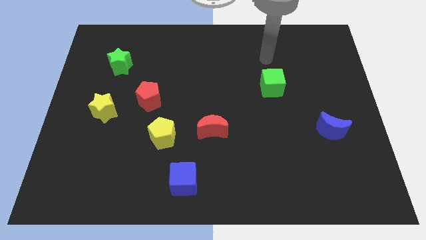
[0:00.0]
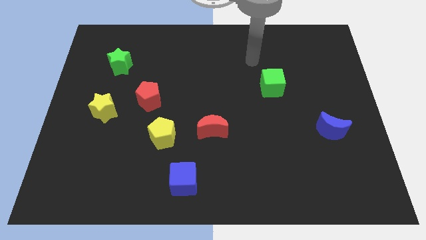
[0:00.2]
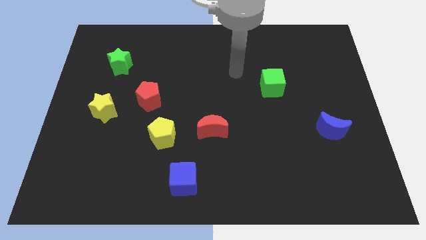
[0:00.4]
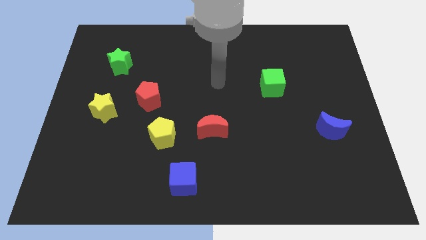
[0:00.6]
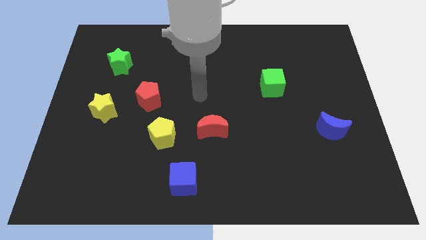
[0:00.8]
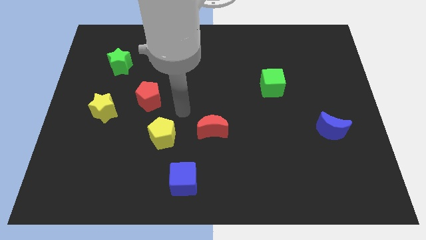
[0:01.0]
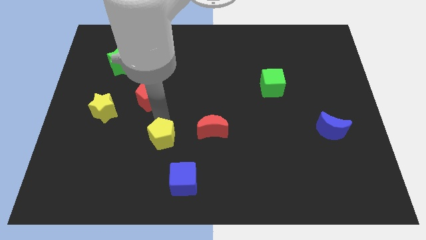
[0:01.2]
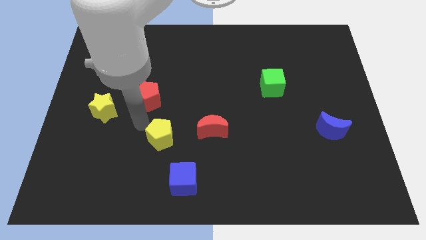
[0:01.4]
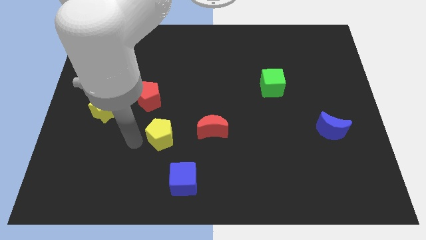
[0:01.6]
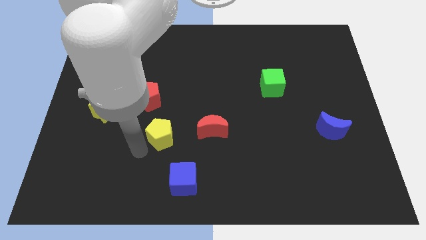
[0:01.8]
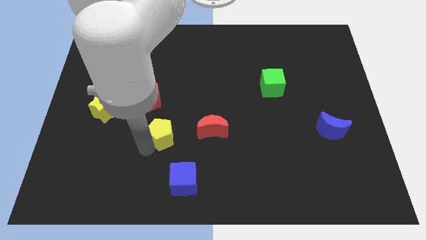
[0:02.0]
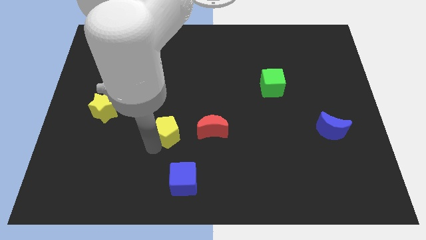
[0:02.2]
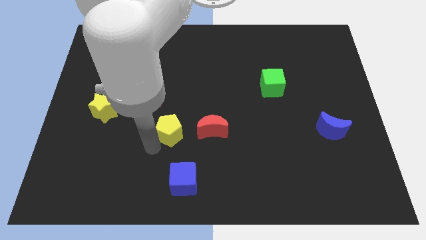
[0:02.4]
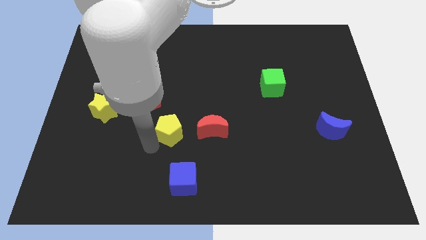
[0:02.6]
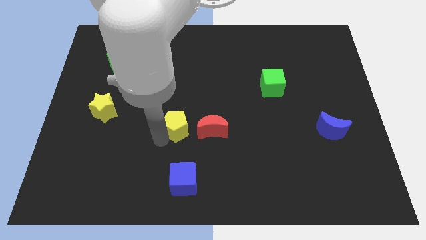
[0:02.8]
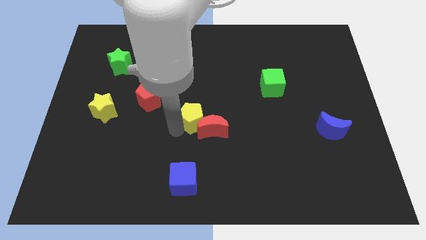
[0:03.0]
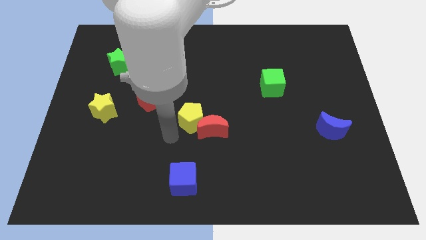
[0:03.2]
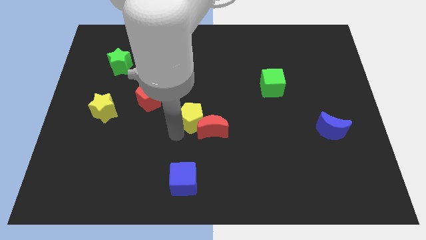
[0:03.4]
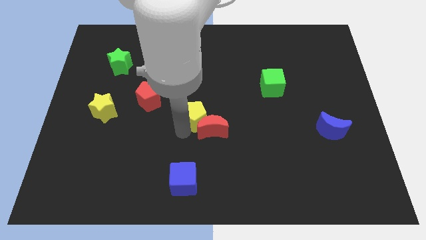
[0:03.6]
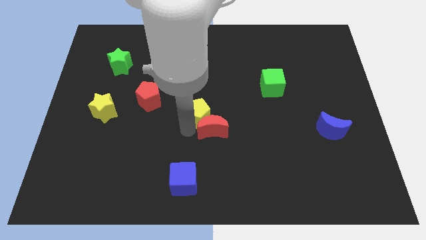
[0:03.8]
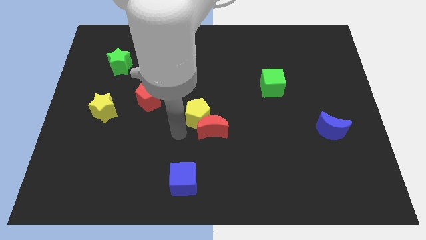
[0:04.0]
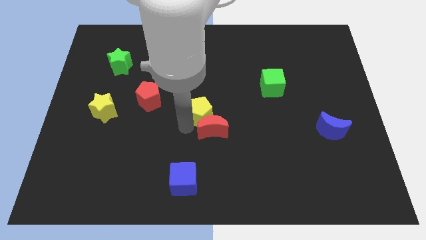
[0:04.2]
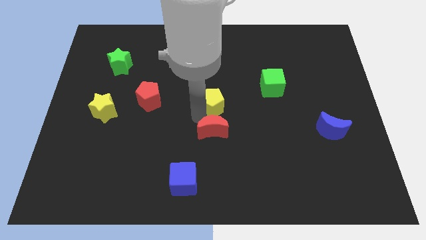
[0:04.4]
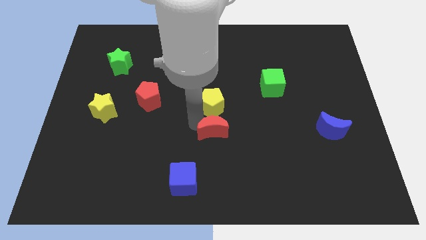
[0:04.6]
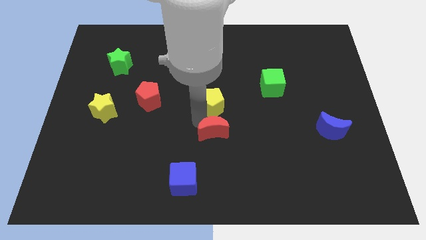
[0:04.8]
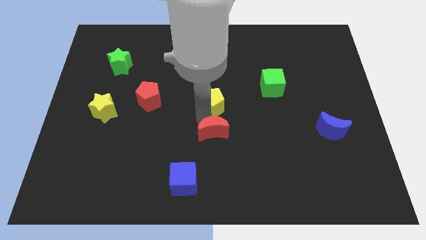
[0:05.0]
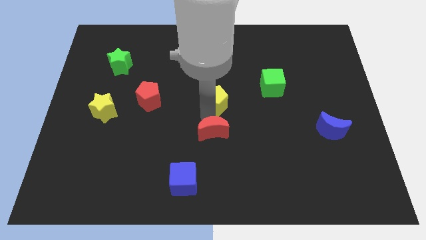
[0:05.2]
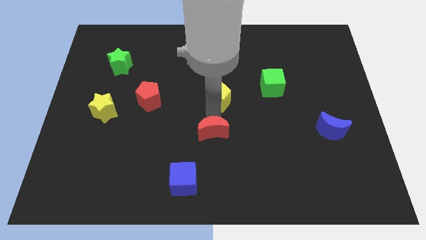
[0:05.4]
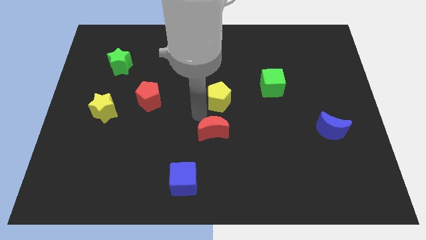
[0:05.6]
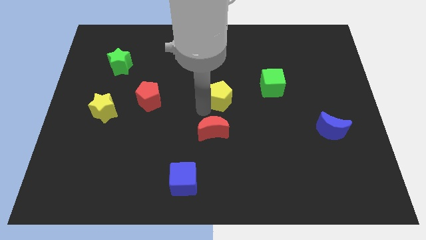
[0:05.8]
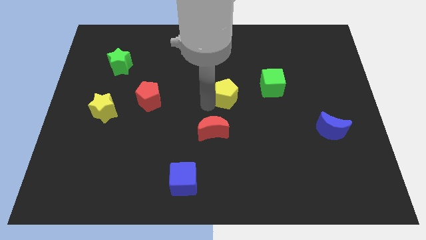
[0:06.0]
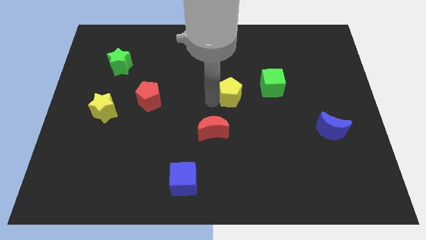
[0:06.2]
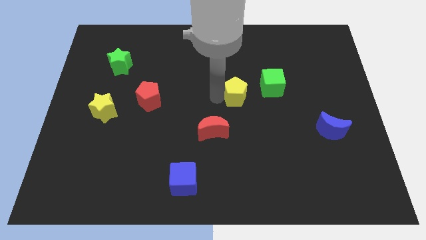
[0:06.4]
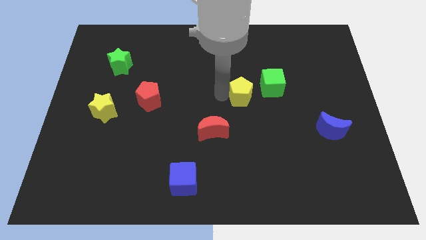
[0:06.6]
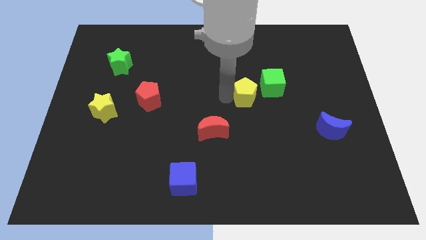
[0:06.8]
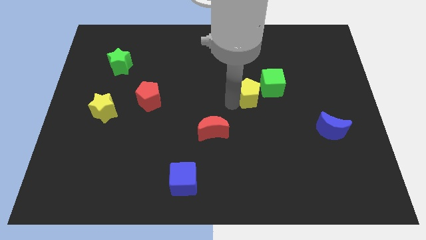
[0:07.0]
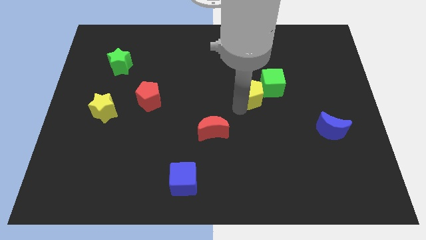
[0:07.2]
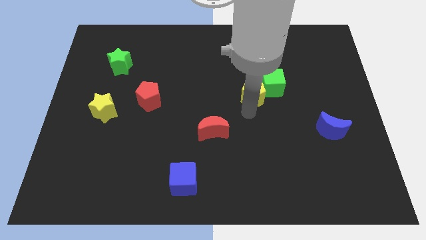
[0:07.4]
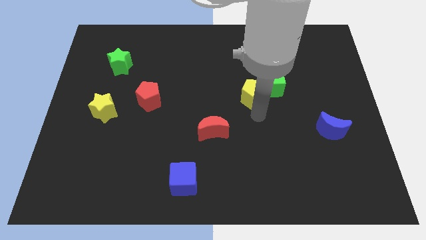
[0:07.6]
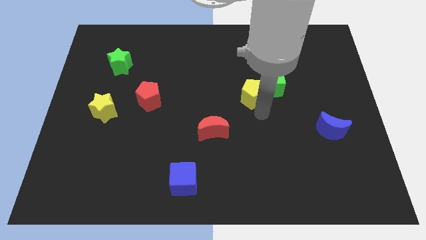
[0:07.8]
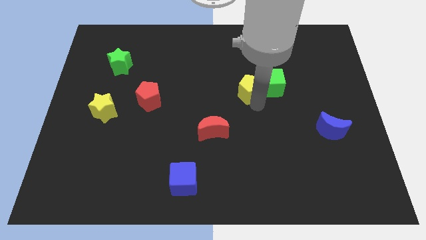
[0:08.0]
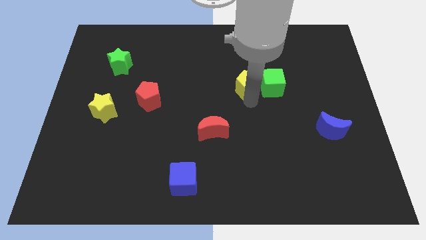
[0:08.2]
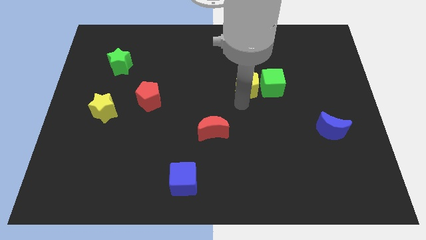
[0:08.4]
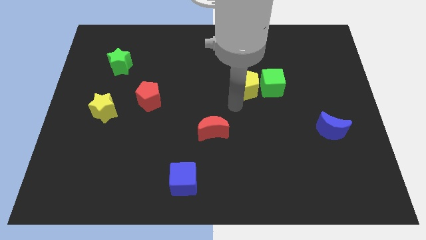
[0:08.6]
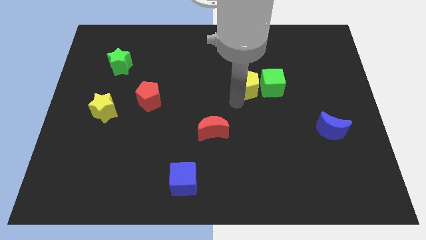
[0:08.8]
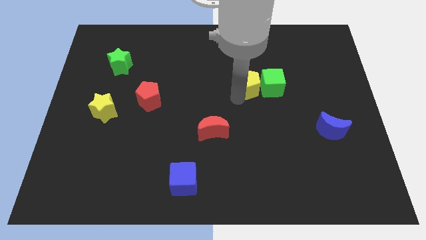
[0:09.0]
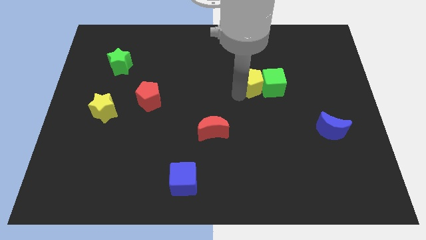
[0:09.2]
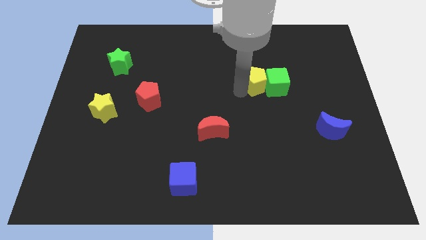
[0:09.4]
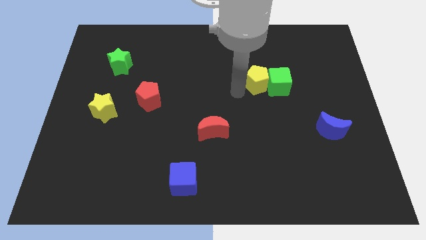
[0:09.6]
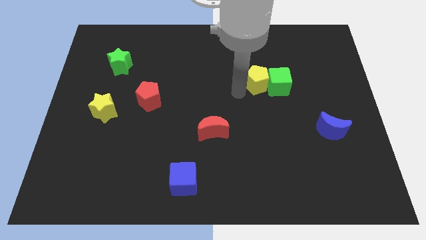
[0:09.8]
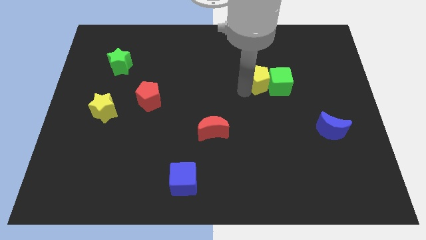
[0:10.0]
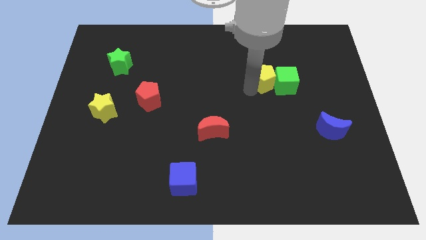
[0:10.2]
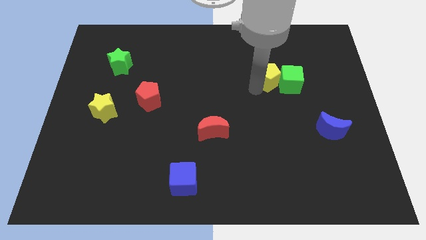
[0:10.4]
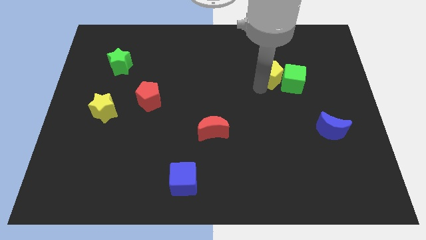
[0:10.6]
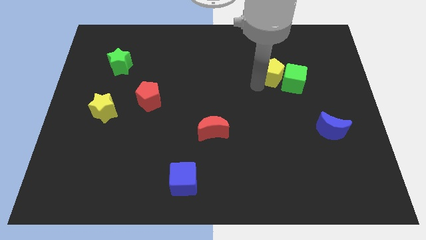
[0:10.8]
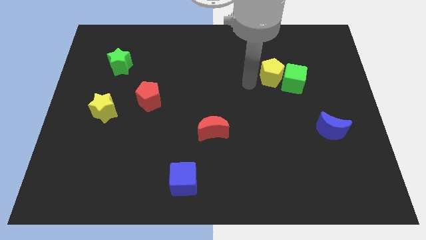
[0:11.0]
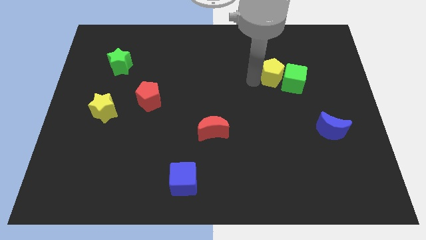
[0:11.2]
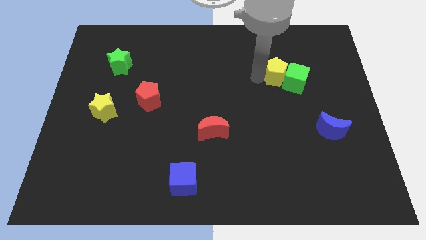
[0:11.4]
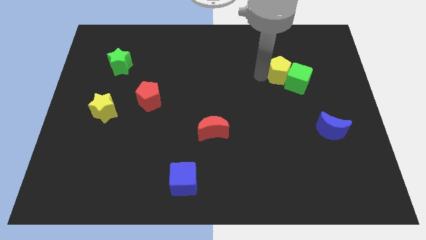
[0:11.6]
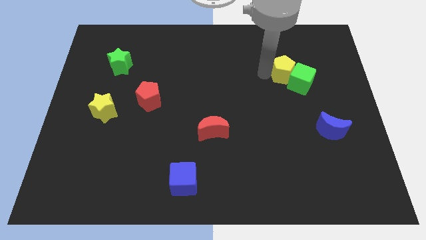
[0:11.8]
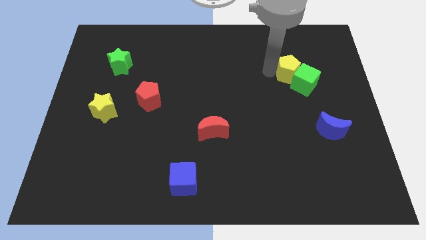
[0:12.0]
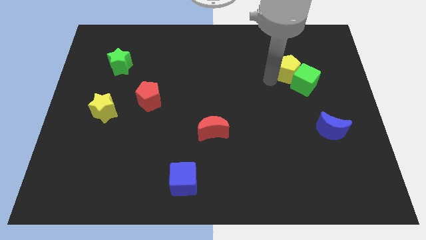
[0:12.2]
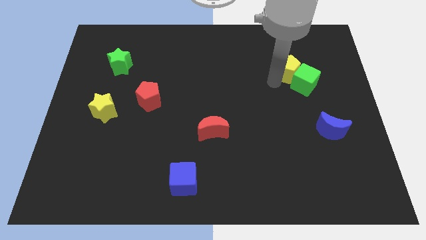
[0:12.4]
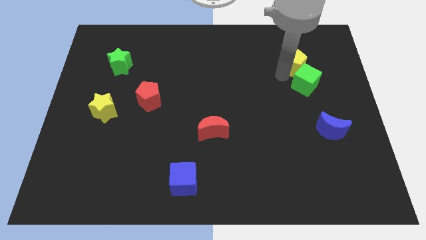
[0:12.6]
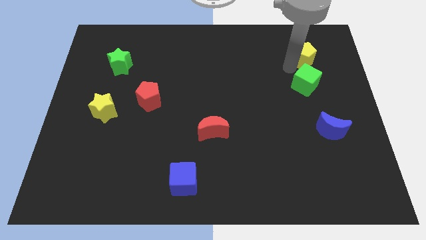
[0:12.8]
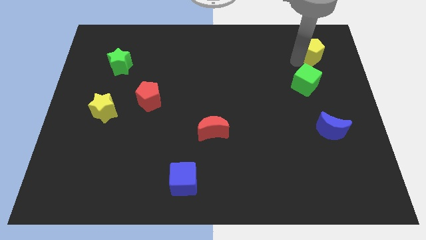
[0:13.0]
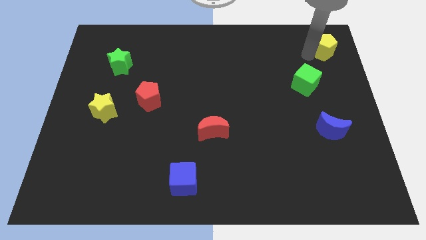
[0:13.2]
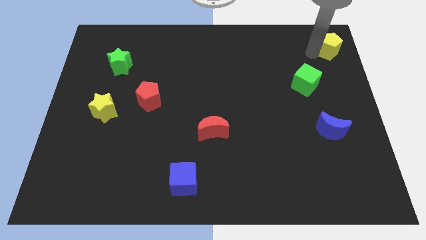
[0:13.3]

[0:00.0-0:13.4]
put the yellow pentagon to the top right
